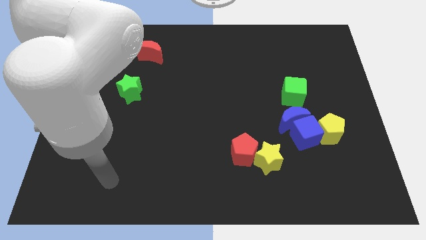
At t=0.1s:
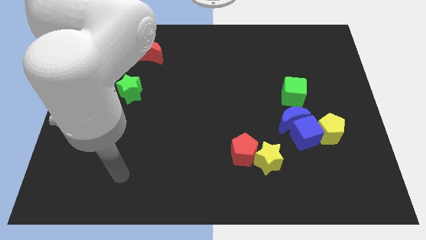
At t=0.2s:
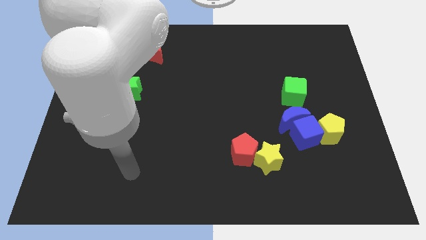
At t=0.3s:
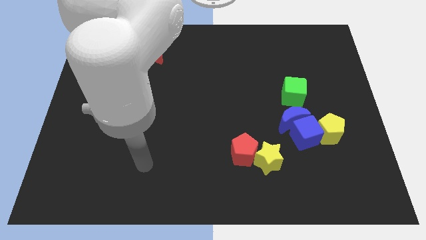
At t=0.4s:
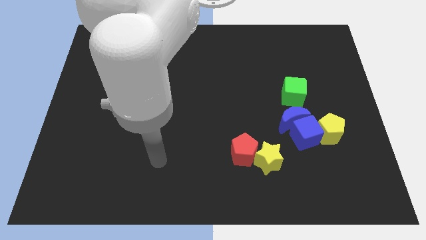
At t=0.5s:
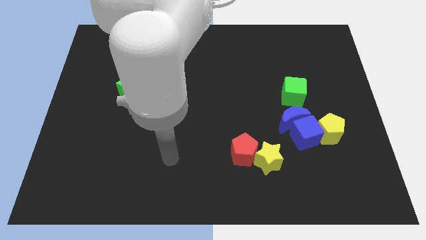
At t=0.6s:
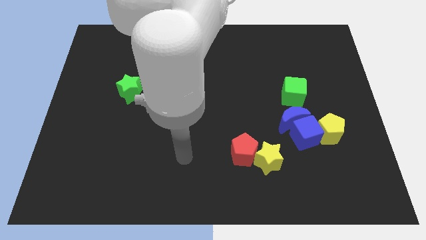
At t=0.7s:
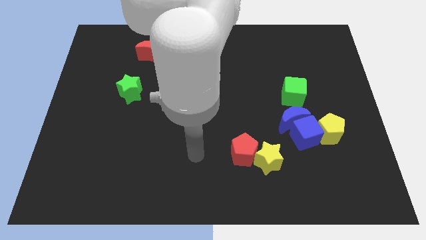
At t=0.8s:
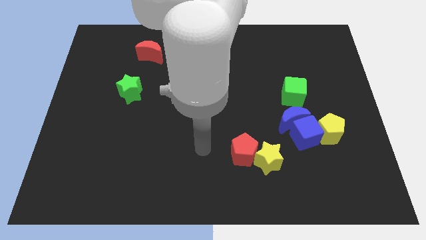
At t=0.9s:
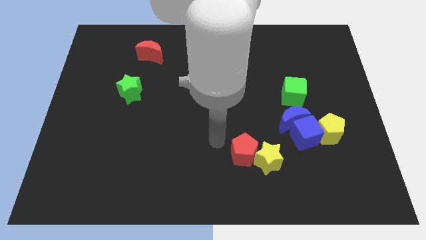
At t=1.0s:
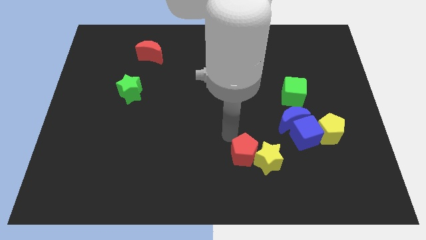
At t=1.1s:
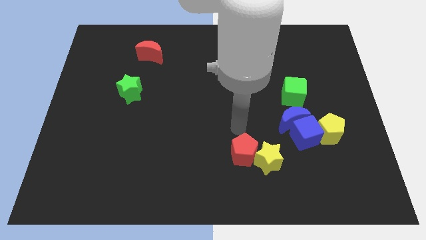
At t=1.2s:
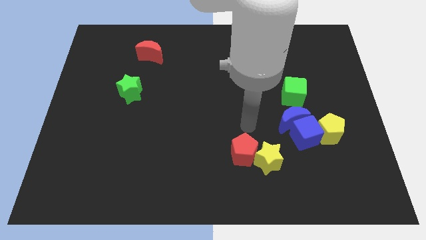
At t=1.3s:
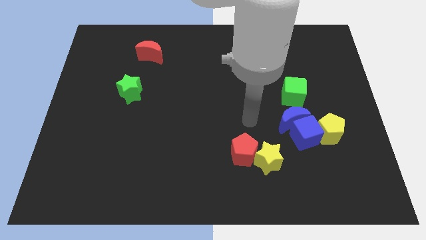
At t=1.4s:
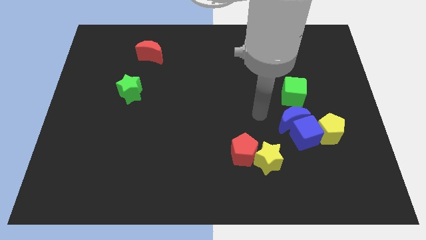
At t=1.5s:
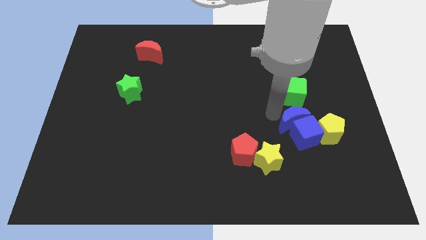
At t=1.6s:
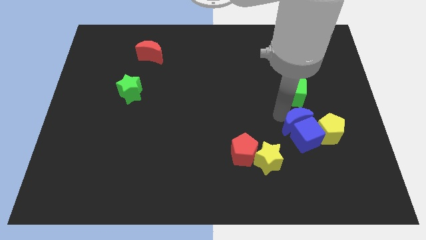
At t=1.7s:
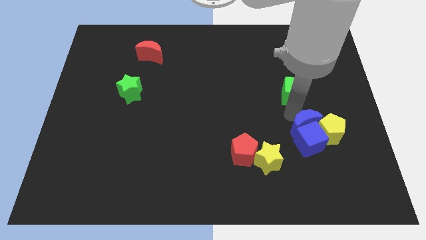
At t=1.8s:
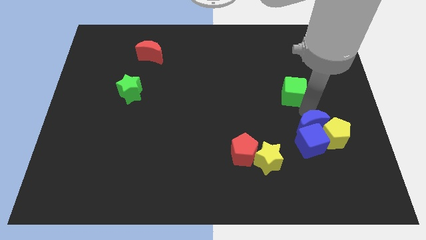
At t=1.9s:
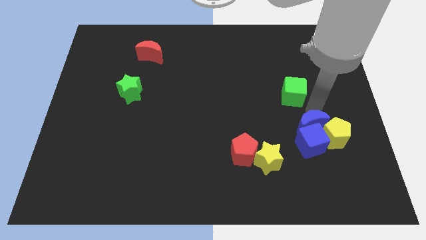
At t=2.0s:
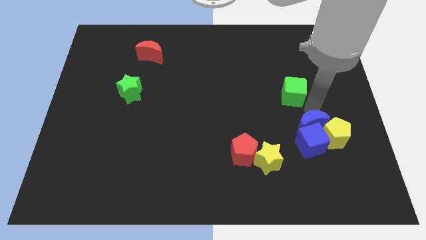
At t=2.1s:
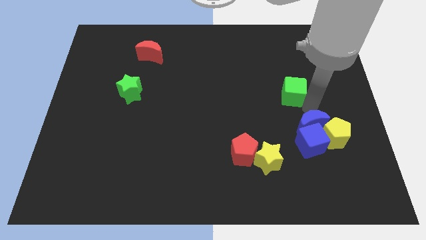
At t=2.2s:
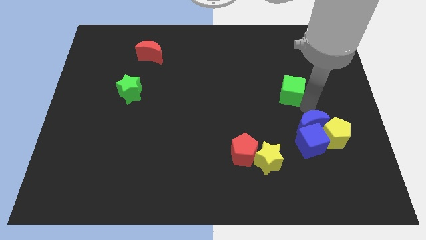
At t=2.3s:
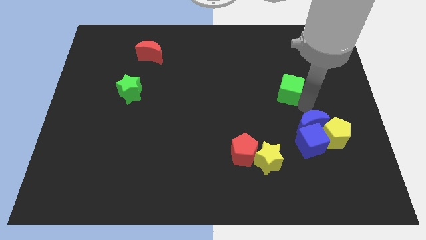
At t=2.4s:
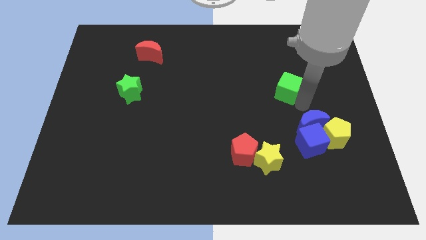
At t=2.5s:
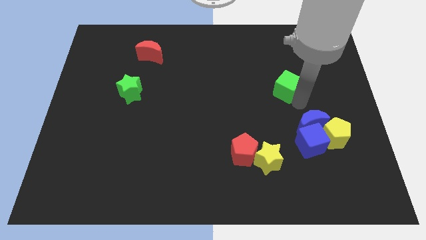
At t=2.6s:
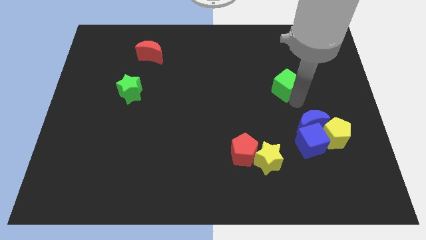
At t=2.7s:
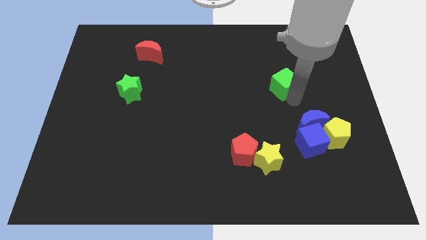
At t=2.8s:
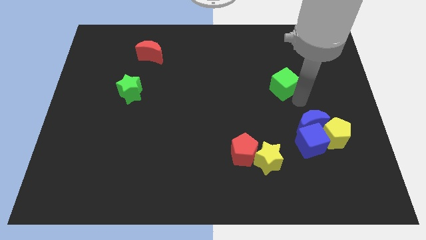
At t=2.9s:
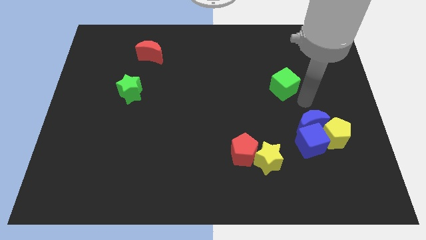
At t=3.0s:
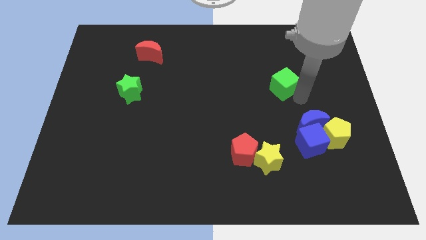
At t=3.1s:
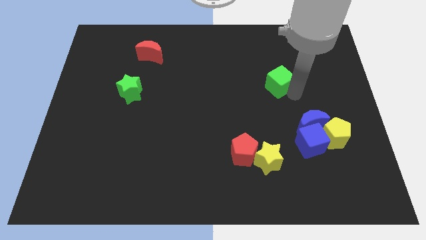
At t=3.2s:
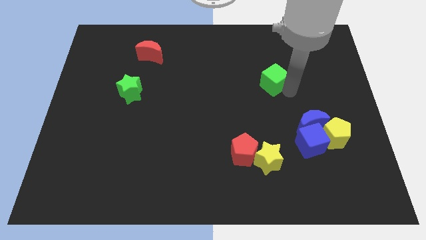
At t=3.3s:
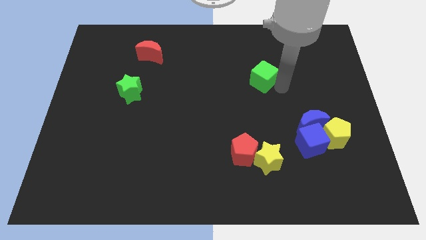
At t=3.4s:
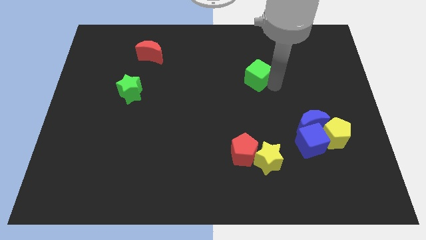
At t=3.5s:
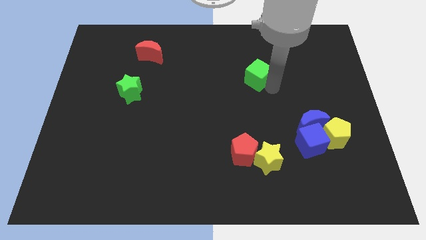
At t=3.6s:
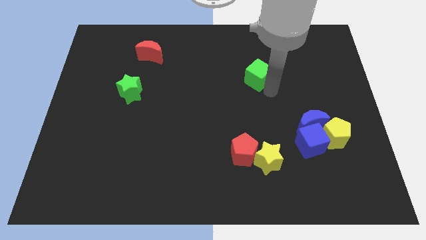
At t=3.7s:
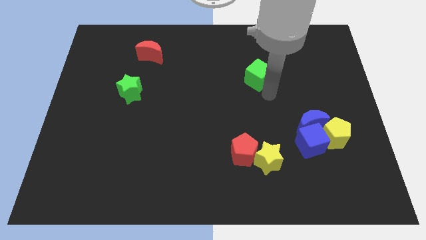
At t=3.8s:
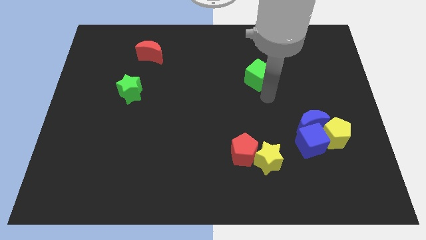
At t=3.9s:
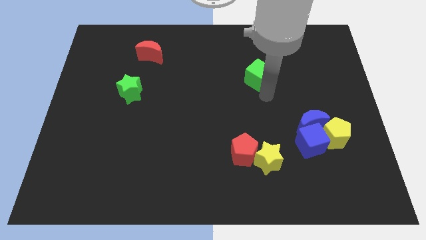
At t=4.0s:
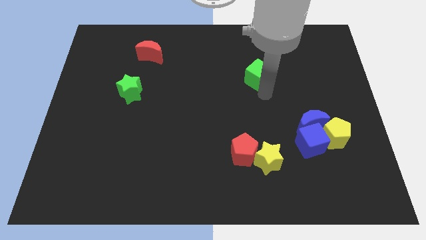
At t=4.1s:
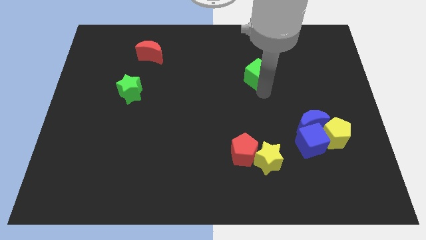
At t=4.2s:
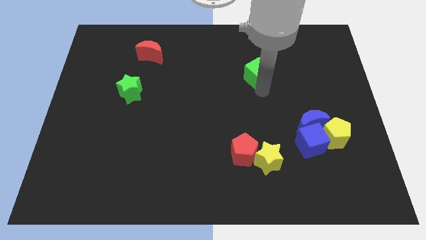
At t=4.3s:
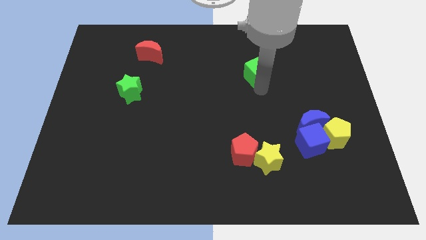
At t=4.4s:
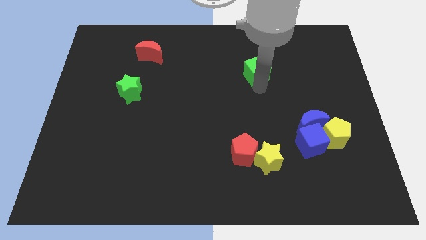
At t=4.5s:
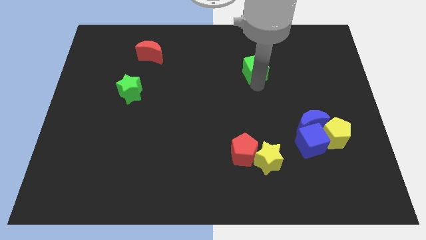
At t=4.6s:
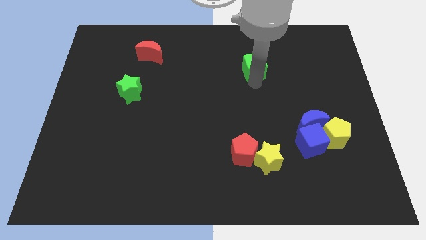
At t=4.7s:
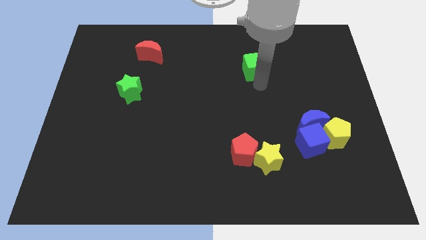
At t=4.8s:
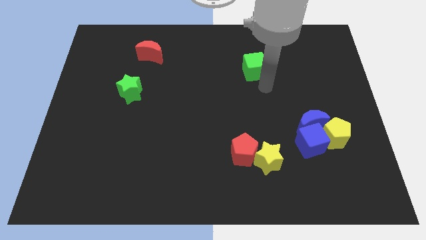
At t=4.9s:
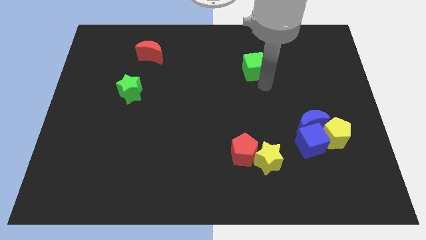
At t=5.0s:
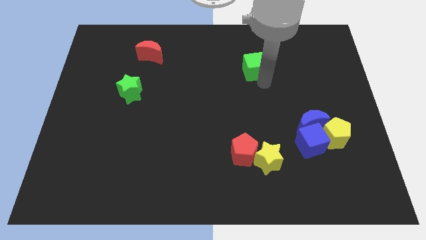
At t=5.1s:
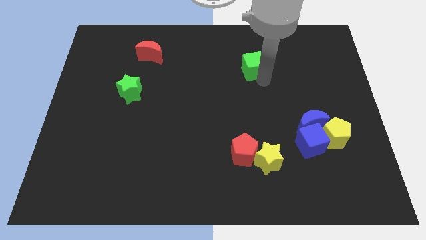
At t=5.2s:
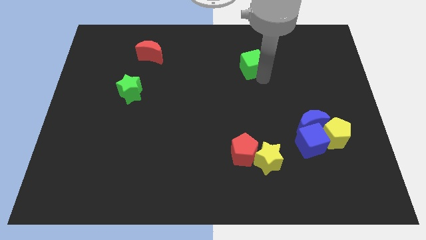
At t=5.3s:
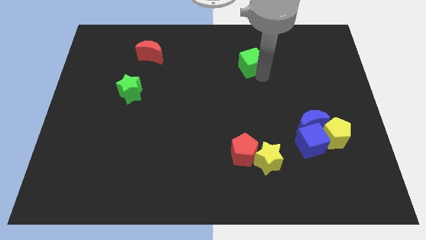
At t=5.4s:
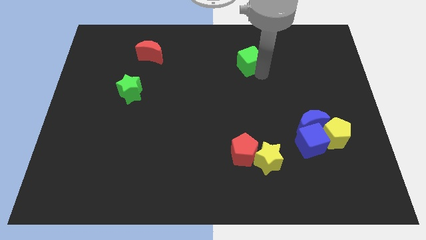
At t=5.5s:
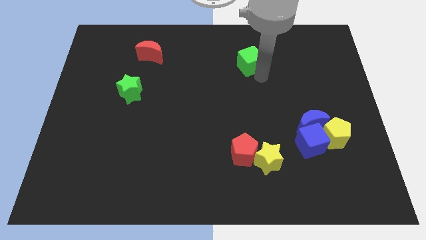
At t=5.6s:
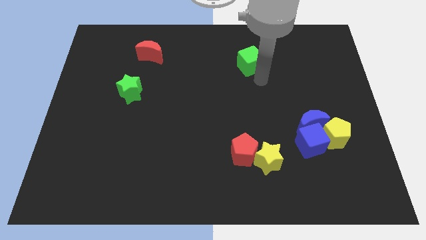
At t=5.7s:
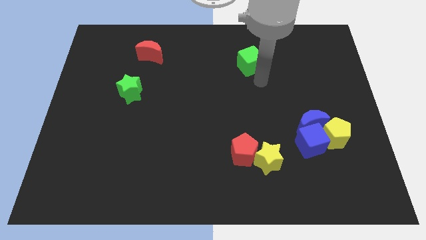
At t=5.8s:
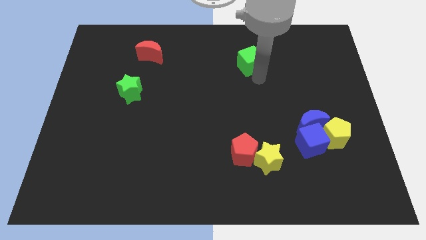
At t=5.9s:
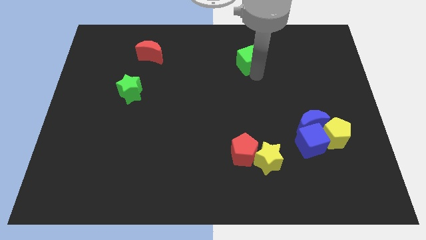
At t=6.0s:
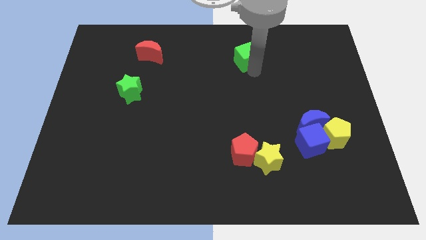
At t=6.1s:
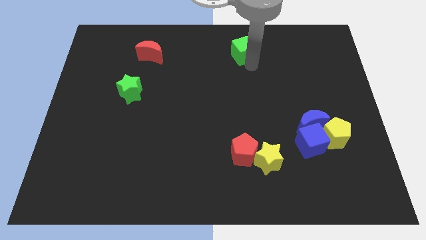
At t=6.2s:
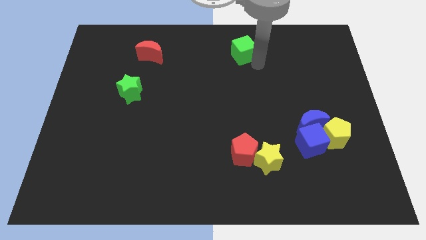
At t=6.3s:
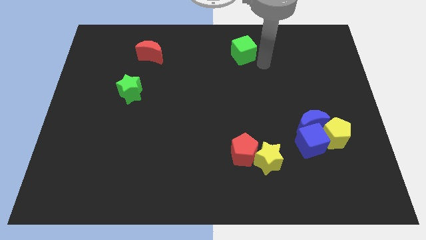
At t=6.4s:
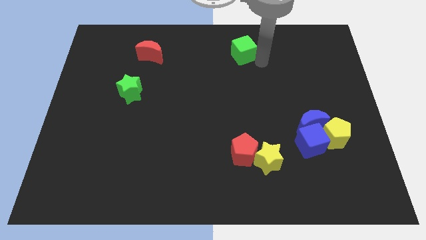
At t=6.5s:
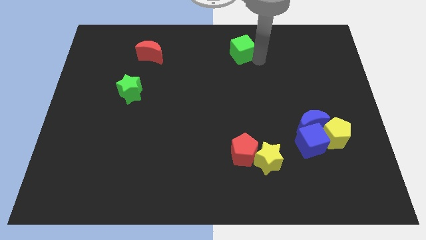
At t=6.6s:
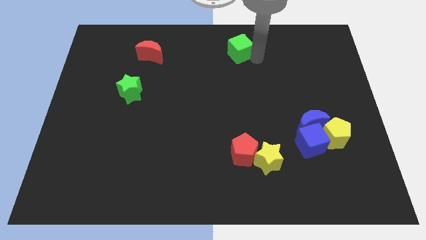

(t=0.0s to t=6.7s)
move the green cube to the top
